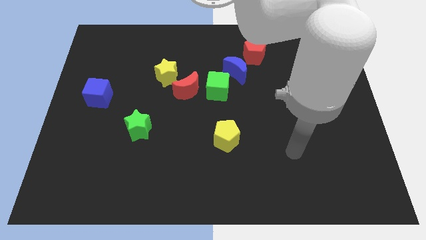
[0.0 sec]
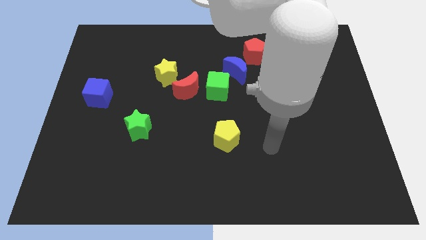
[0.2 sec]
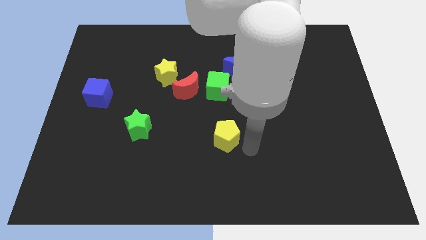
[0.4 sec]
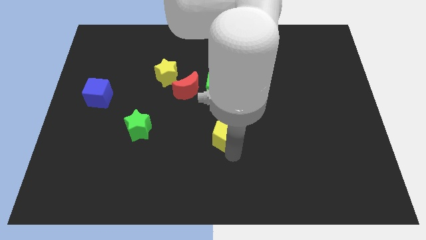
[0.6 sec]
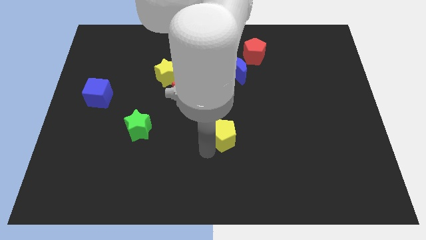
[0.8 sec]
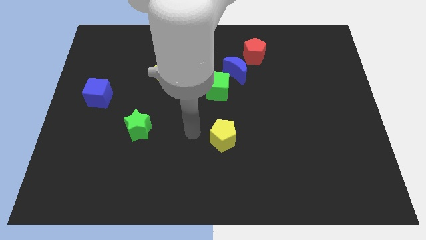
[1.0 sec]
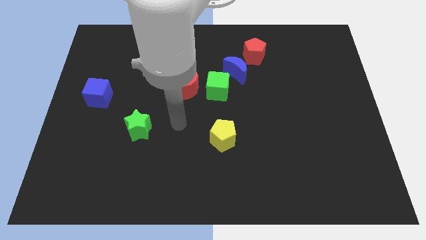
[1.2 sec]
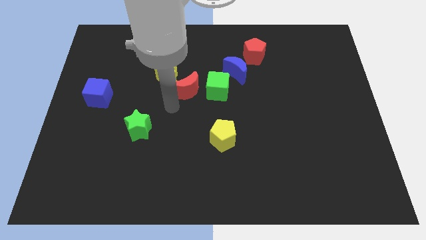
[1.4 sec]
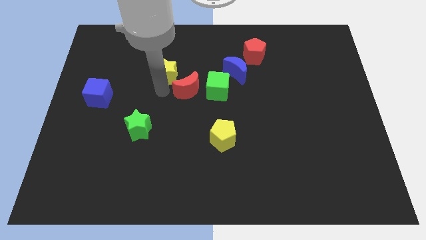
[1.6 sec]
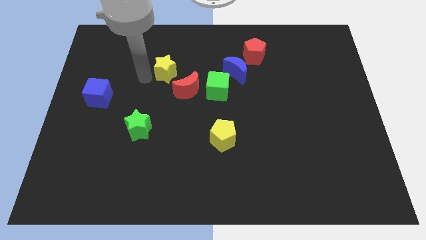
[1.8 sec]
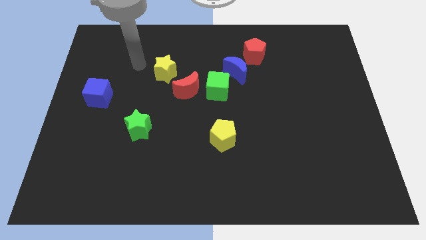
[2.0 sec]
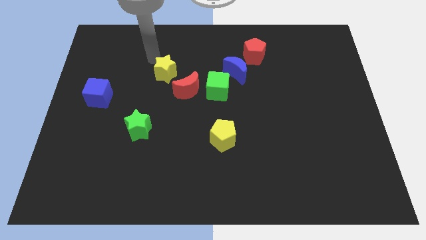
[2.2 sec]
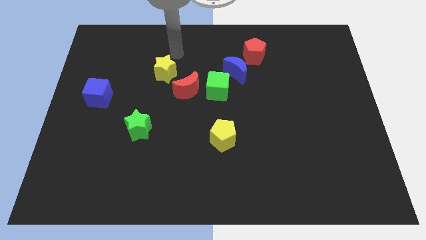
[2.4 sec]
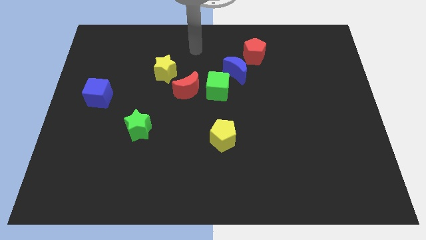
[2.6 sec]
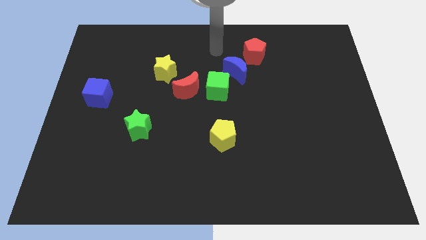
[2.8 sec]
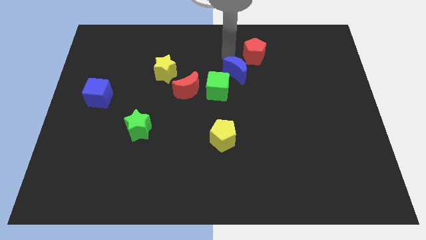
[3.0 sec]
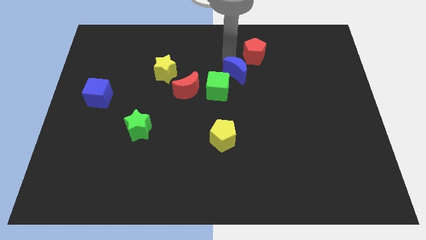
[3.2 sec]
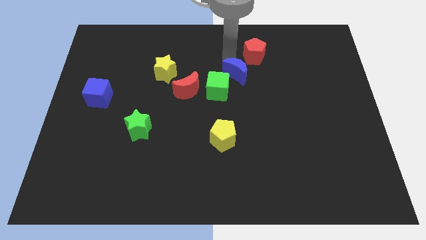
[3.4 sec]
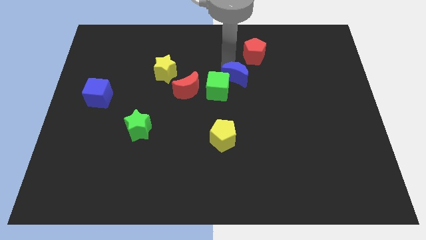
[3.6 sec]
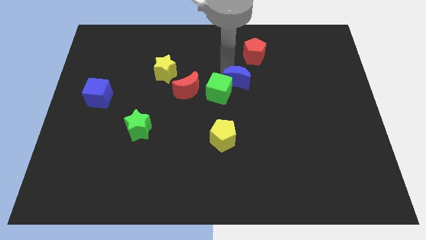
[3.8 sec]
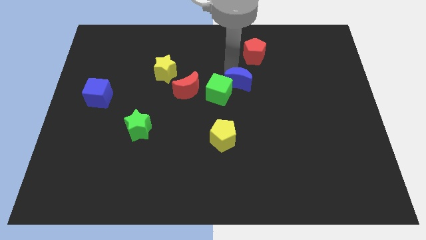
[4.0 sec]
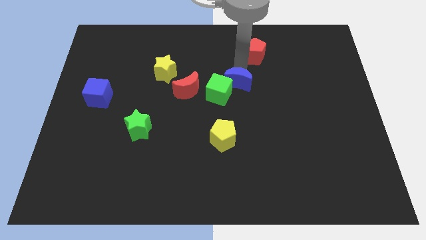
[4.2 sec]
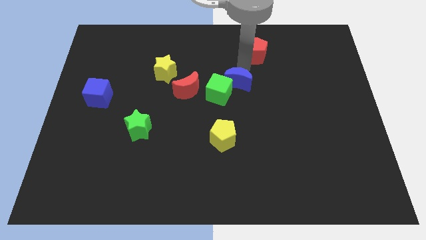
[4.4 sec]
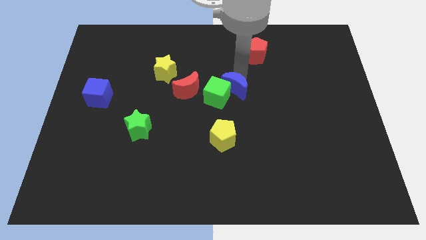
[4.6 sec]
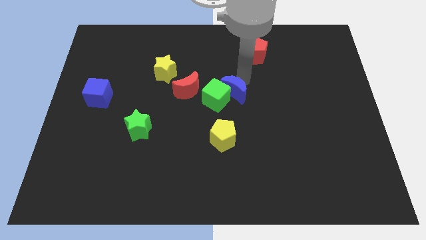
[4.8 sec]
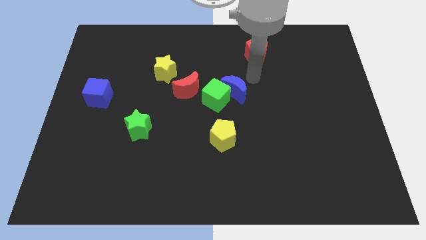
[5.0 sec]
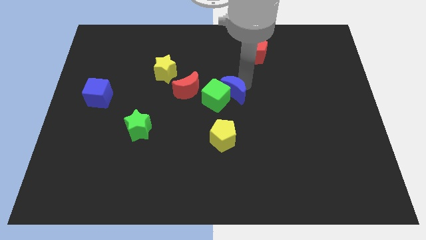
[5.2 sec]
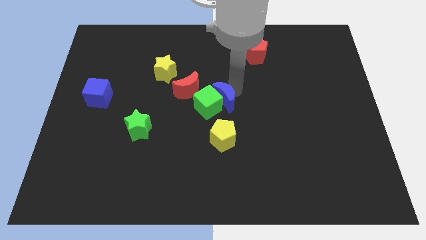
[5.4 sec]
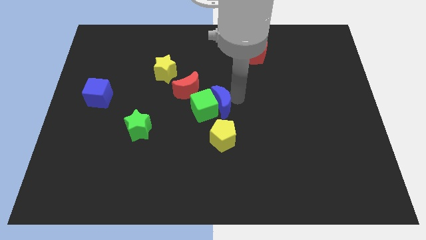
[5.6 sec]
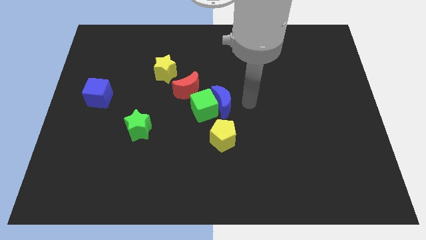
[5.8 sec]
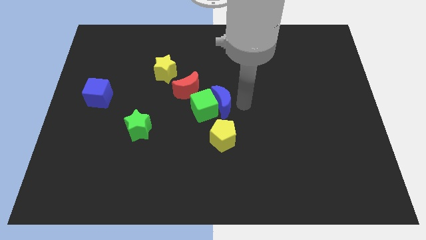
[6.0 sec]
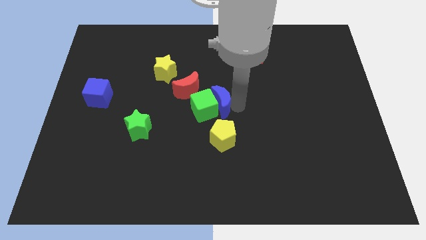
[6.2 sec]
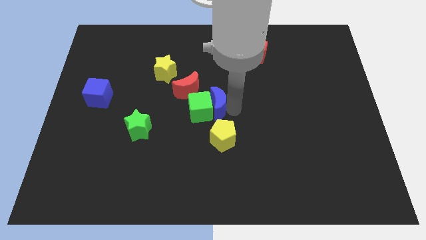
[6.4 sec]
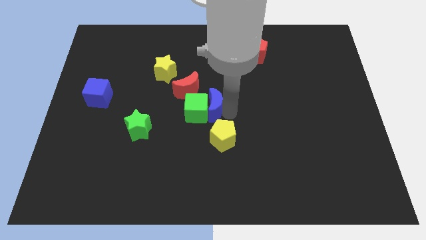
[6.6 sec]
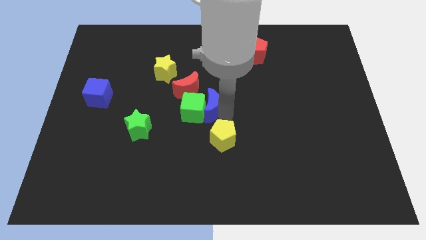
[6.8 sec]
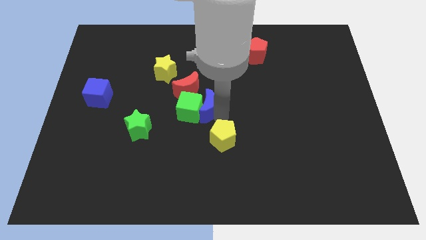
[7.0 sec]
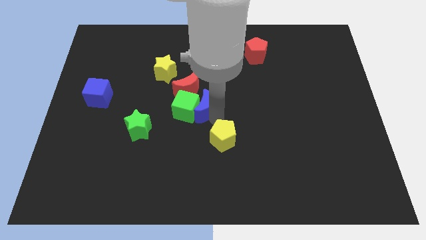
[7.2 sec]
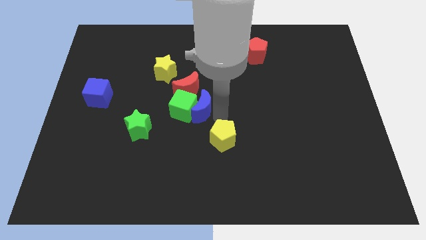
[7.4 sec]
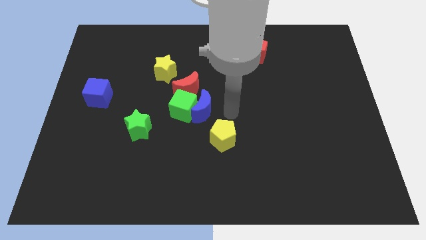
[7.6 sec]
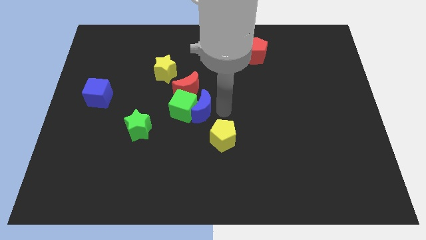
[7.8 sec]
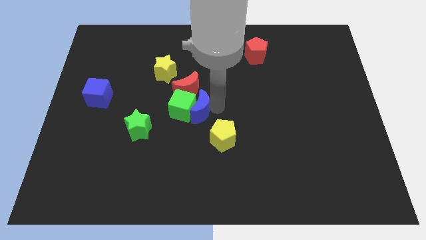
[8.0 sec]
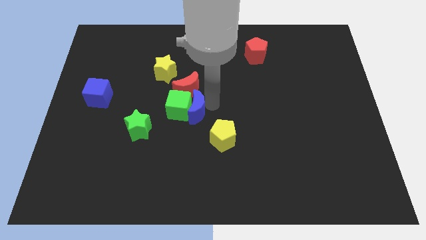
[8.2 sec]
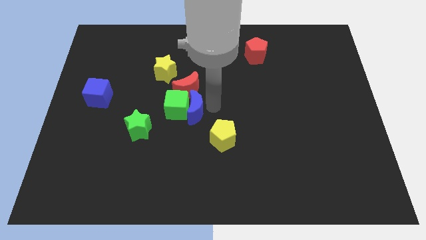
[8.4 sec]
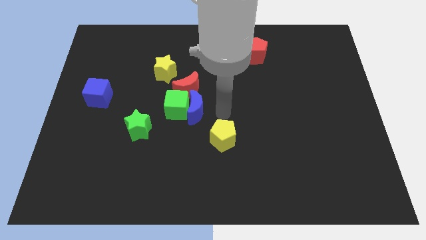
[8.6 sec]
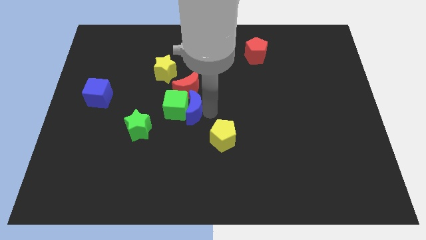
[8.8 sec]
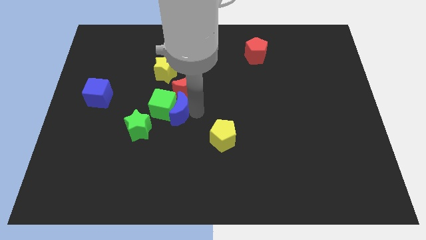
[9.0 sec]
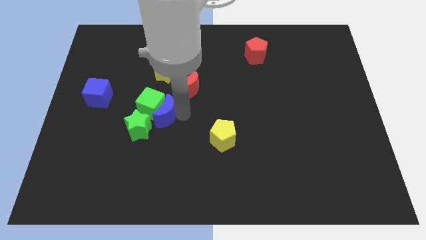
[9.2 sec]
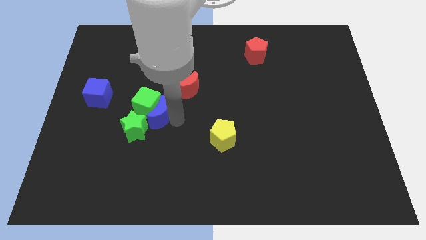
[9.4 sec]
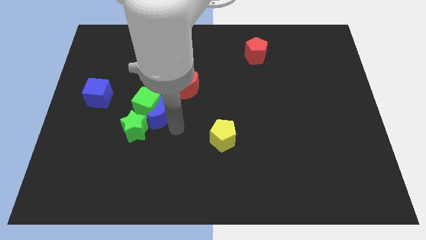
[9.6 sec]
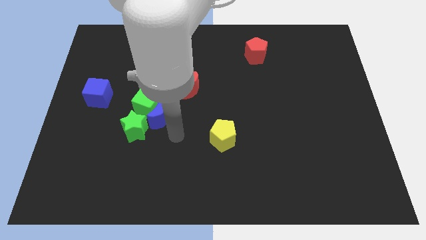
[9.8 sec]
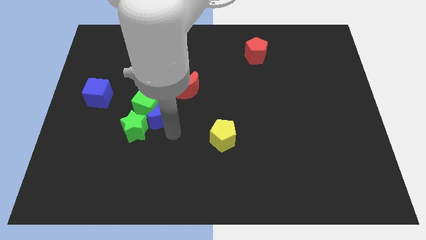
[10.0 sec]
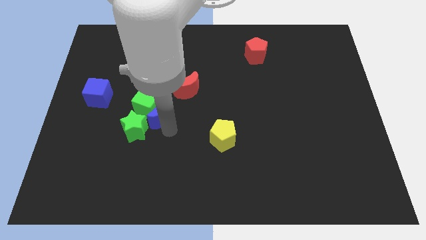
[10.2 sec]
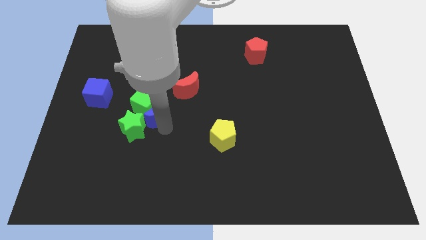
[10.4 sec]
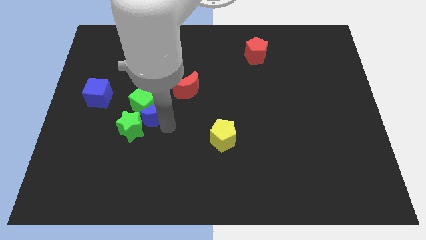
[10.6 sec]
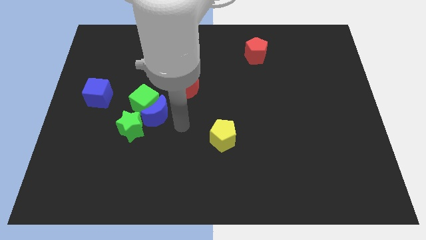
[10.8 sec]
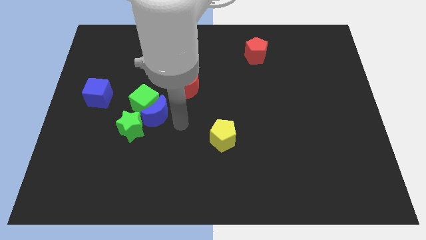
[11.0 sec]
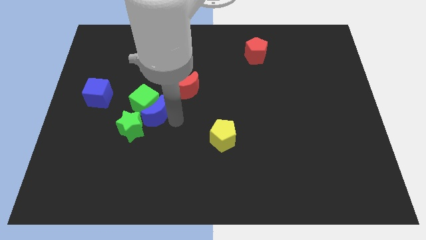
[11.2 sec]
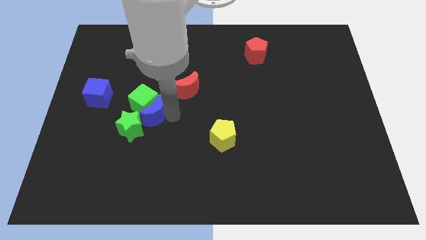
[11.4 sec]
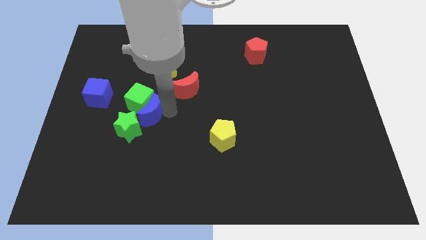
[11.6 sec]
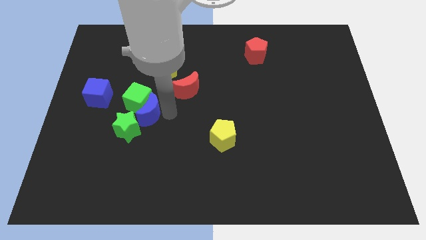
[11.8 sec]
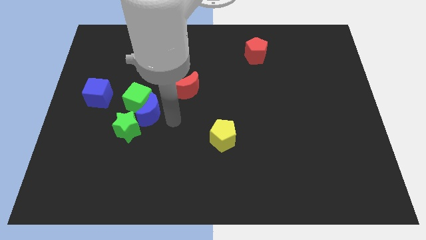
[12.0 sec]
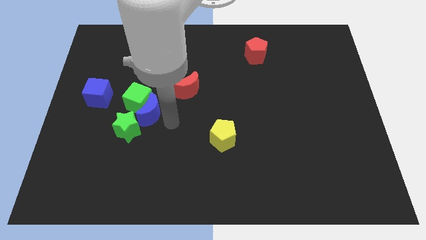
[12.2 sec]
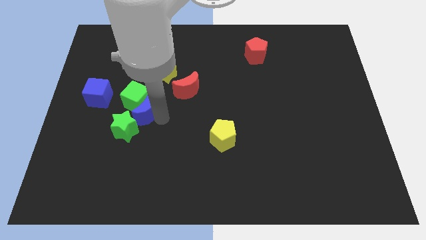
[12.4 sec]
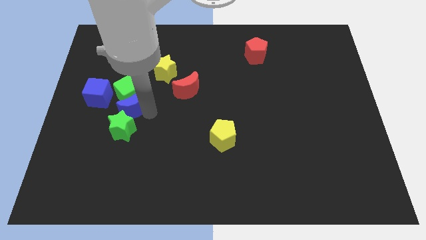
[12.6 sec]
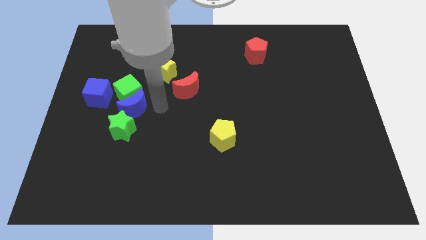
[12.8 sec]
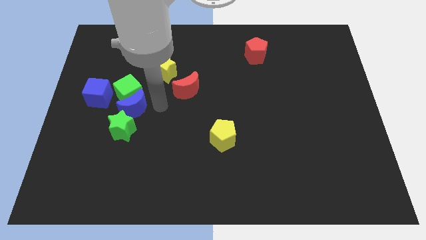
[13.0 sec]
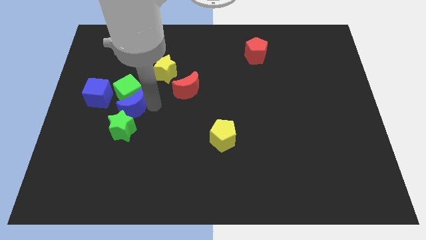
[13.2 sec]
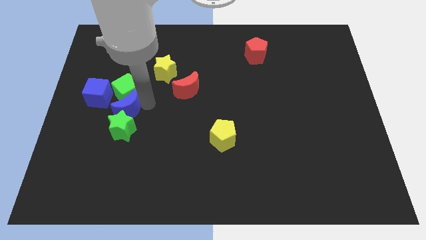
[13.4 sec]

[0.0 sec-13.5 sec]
move the blue moon diagonally up and to the left of the green star
